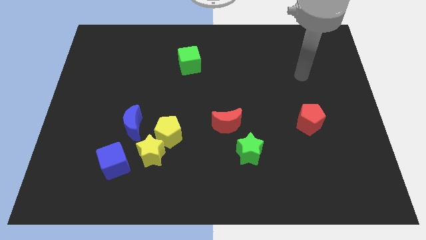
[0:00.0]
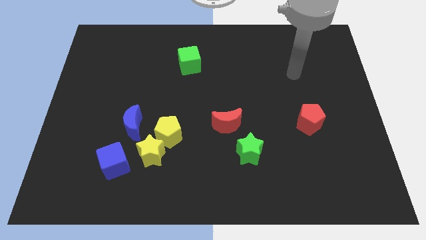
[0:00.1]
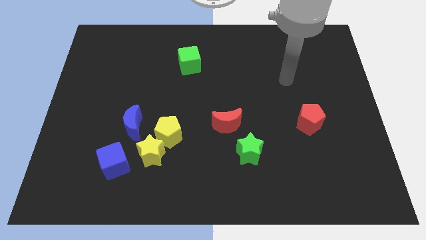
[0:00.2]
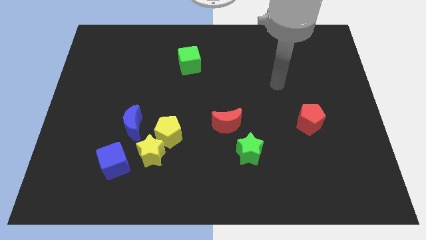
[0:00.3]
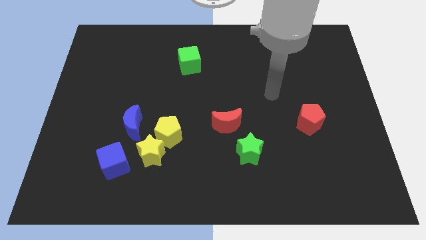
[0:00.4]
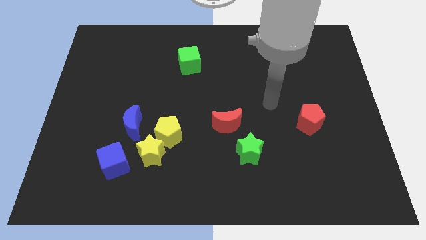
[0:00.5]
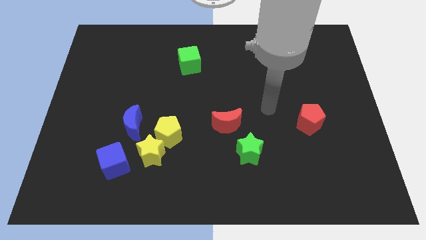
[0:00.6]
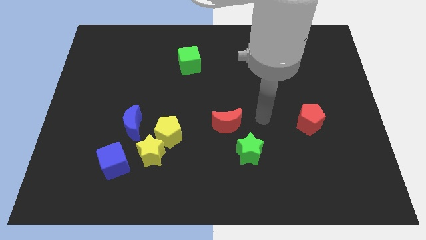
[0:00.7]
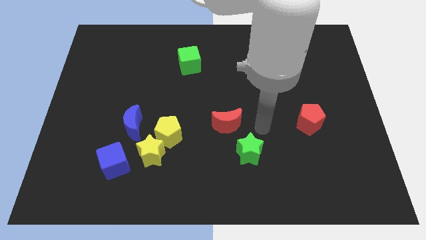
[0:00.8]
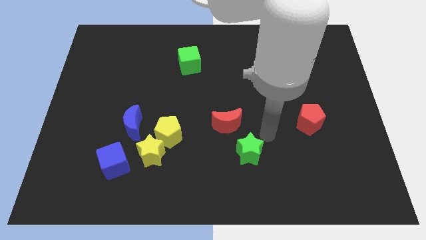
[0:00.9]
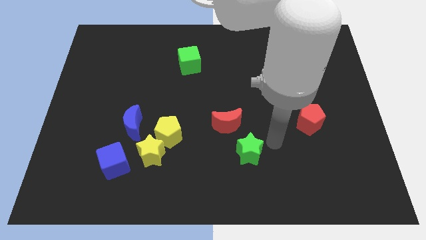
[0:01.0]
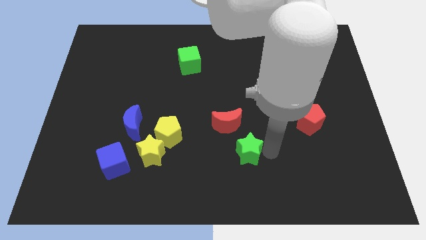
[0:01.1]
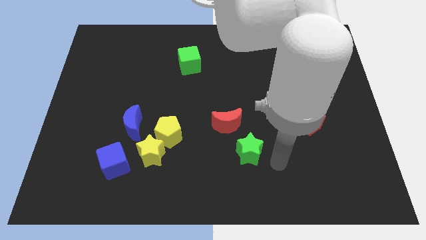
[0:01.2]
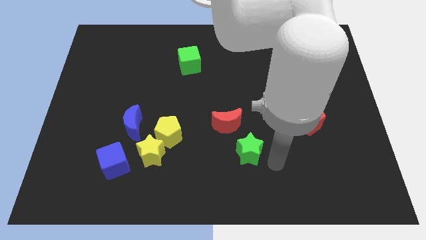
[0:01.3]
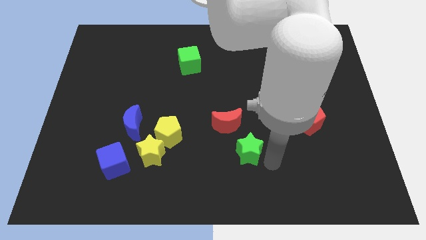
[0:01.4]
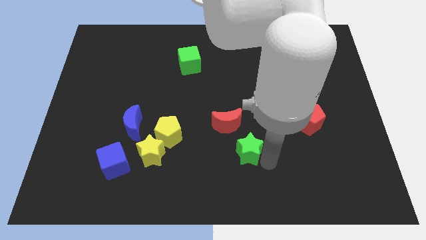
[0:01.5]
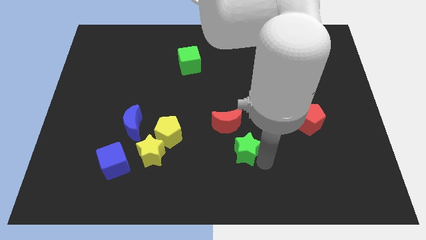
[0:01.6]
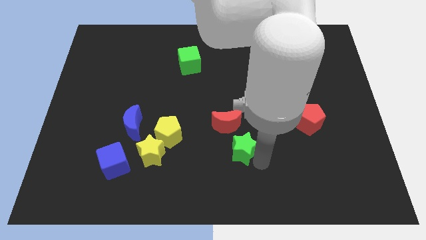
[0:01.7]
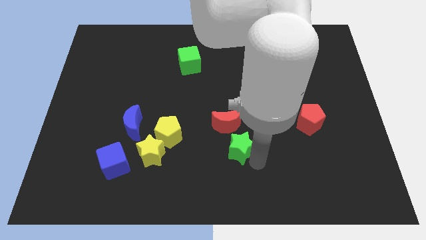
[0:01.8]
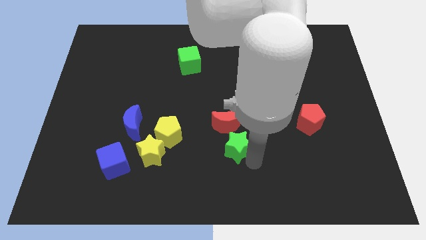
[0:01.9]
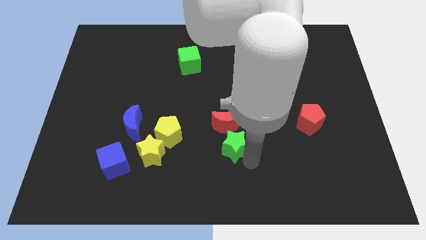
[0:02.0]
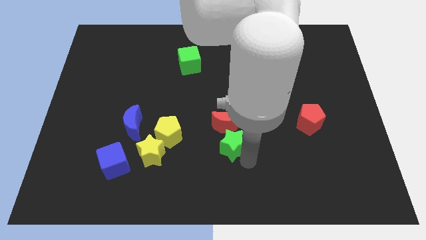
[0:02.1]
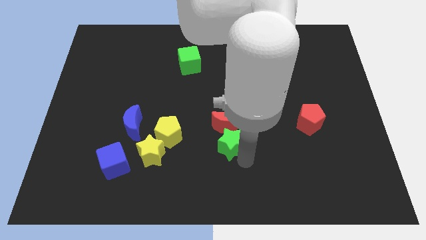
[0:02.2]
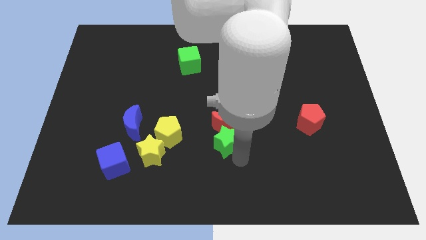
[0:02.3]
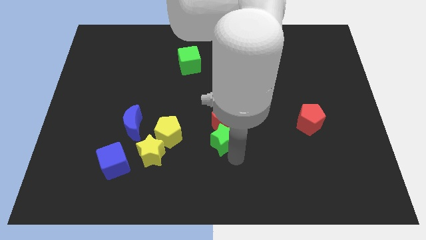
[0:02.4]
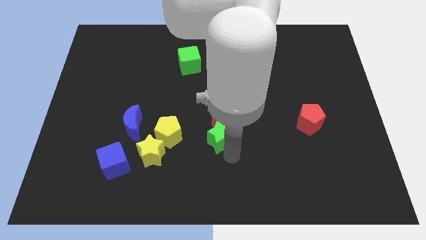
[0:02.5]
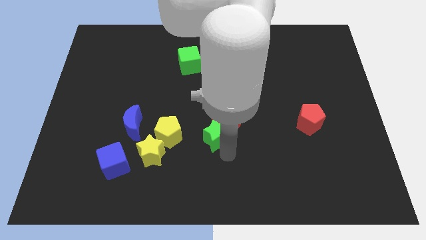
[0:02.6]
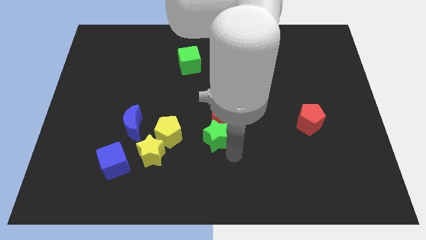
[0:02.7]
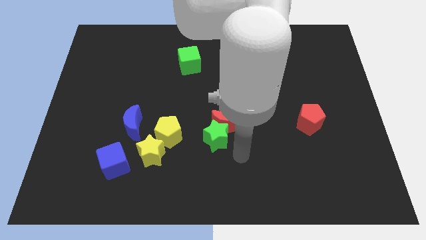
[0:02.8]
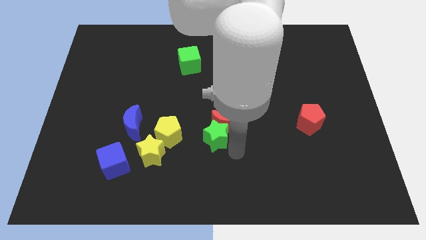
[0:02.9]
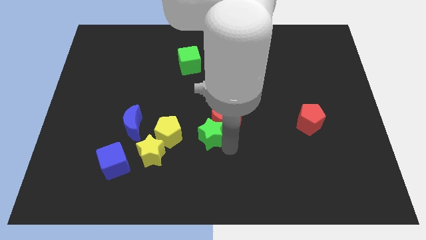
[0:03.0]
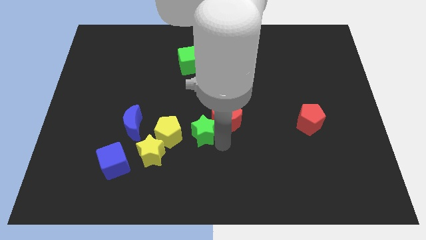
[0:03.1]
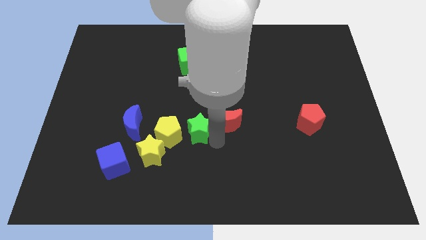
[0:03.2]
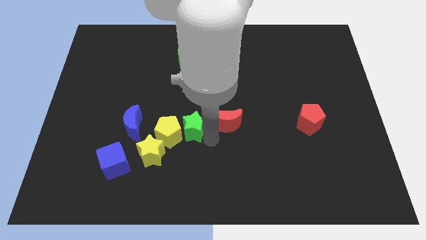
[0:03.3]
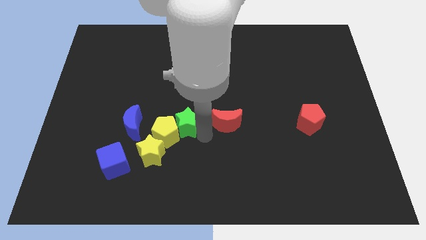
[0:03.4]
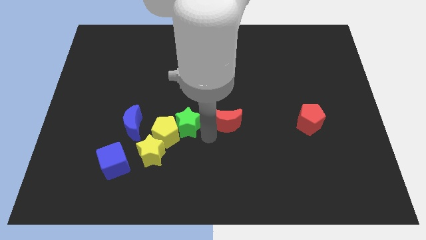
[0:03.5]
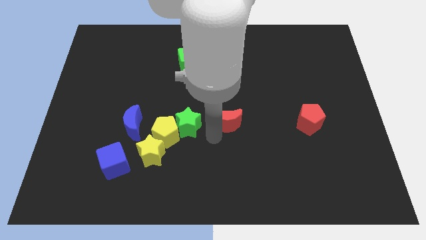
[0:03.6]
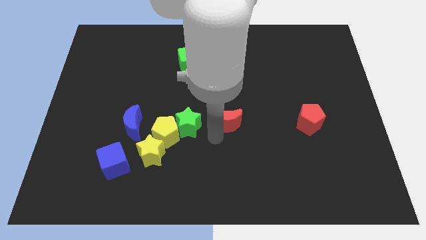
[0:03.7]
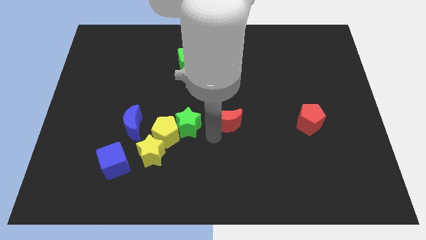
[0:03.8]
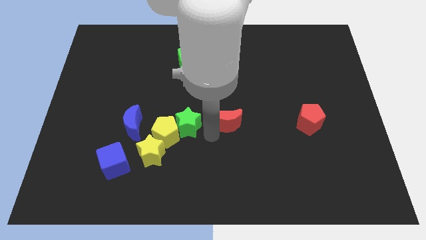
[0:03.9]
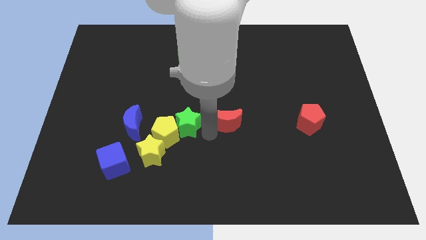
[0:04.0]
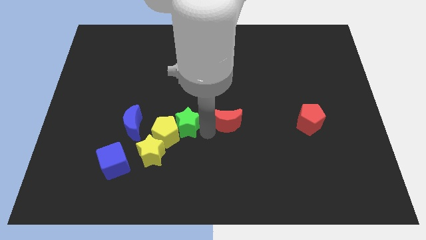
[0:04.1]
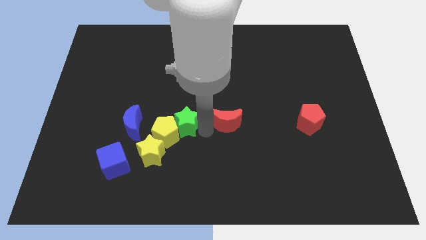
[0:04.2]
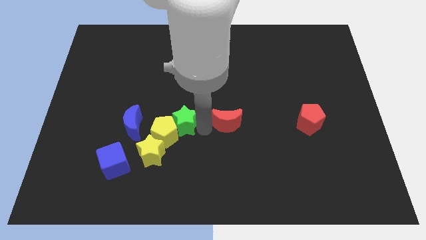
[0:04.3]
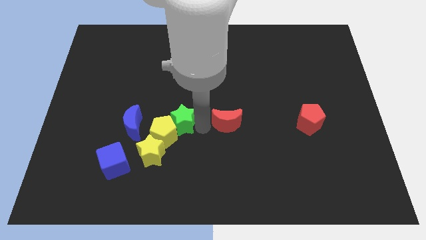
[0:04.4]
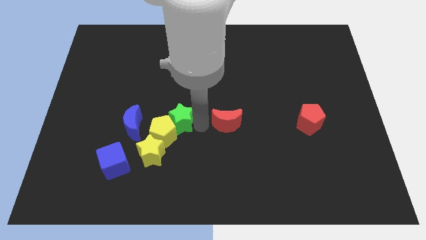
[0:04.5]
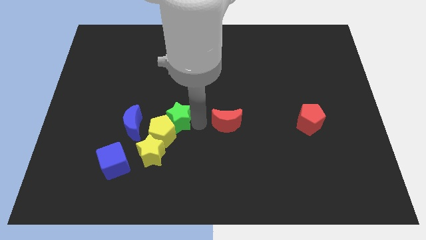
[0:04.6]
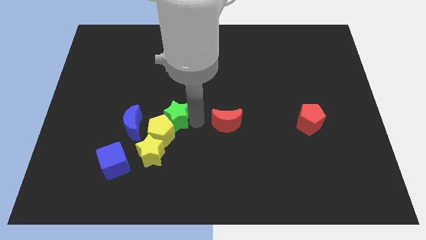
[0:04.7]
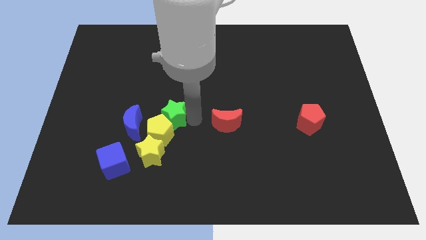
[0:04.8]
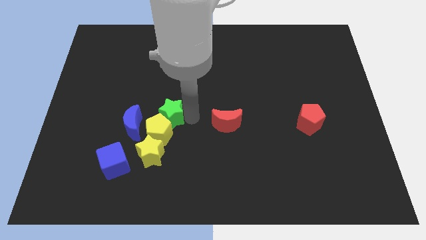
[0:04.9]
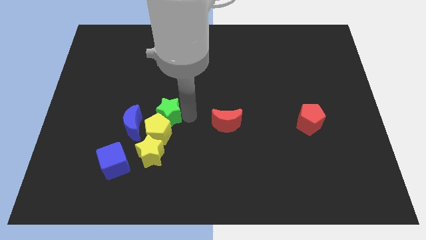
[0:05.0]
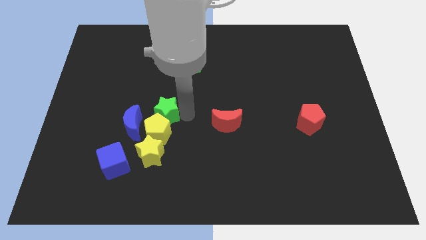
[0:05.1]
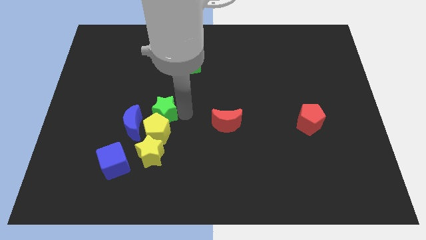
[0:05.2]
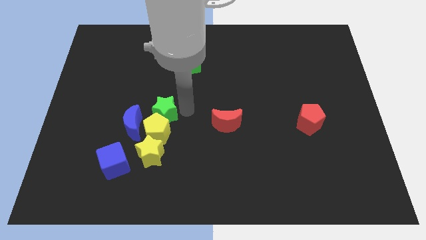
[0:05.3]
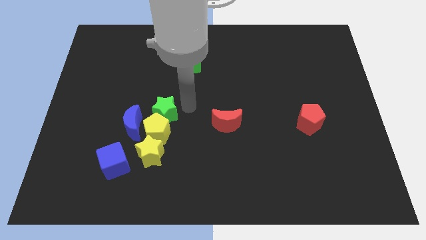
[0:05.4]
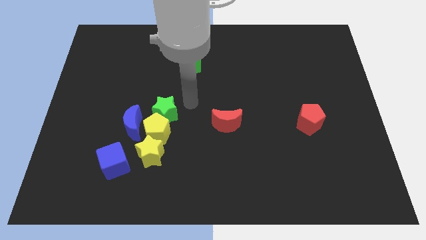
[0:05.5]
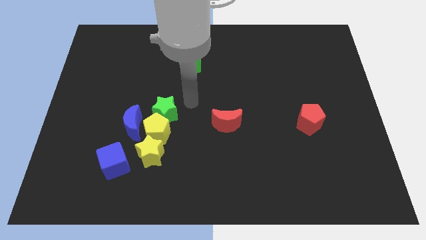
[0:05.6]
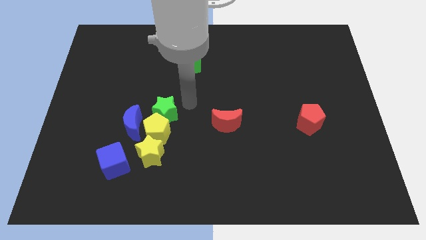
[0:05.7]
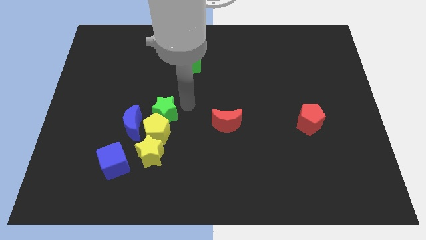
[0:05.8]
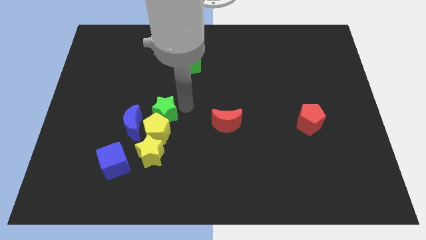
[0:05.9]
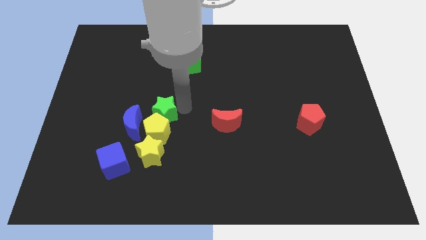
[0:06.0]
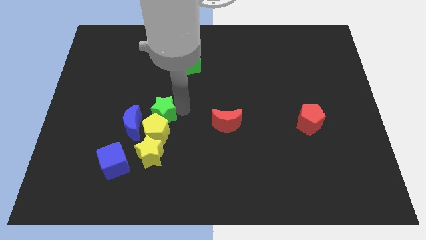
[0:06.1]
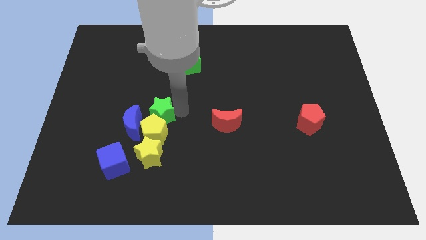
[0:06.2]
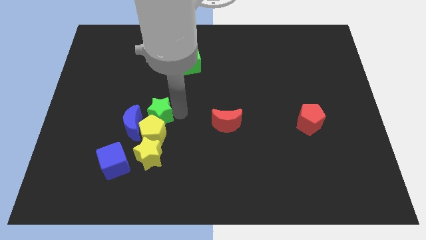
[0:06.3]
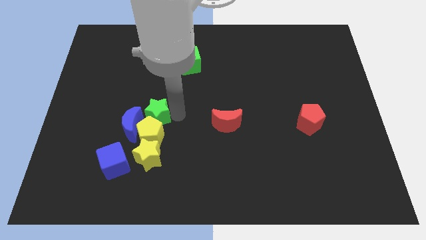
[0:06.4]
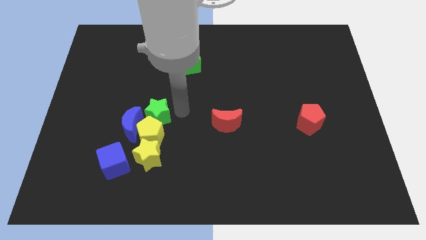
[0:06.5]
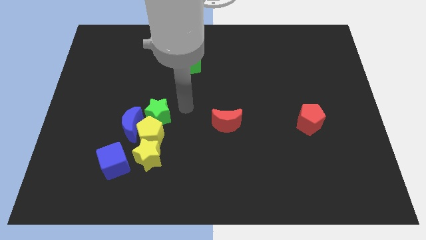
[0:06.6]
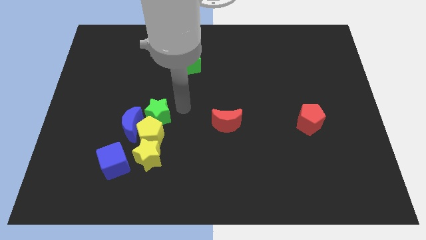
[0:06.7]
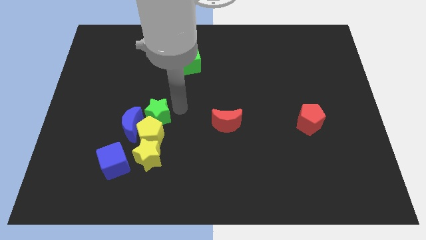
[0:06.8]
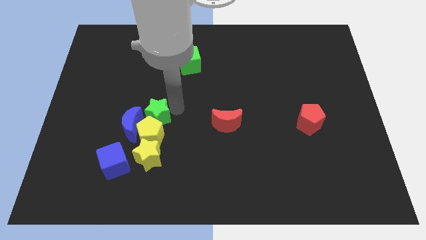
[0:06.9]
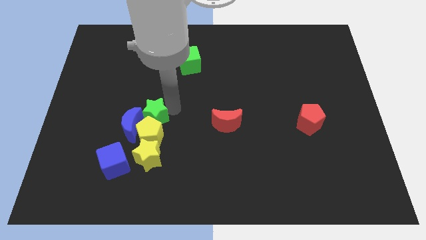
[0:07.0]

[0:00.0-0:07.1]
move the green star to the blue moon

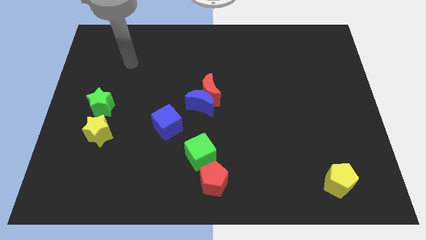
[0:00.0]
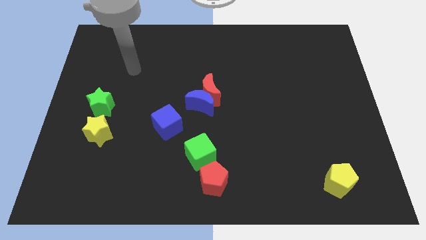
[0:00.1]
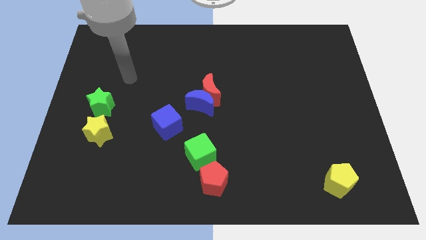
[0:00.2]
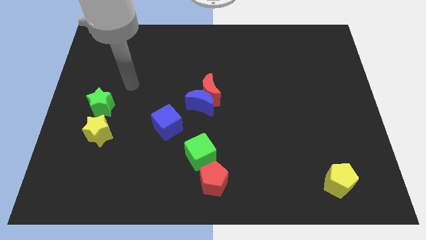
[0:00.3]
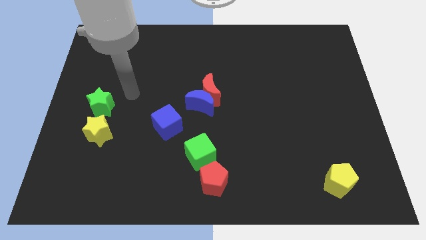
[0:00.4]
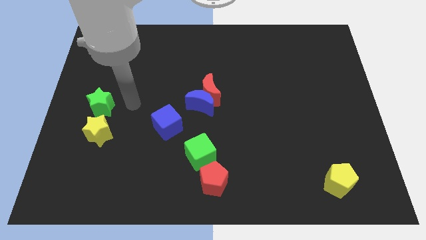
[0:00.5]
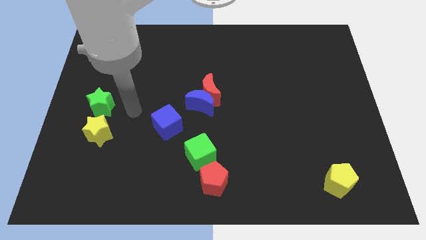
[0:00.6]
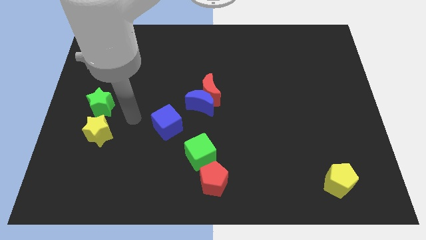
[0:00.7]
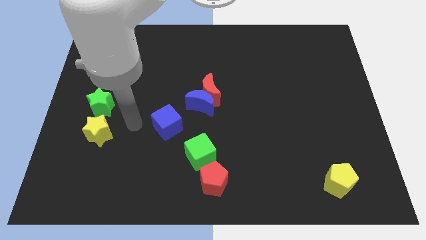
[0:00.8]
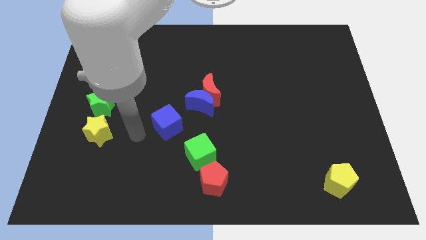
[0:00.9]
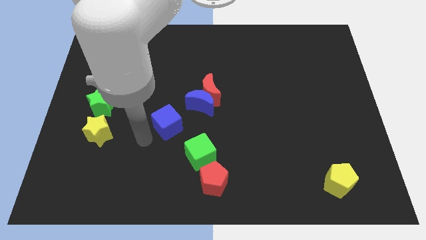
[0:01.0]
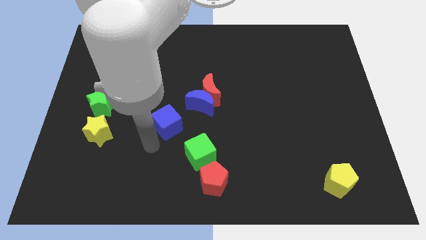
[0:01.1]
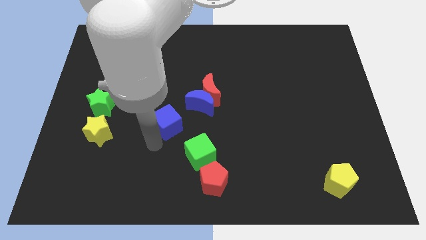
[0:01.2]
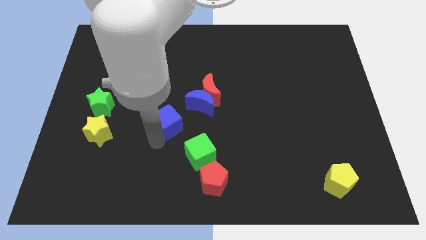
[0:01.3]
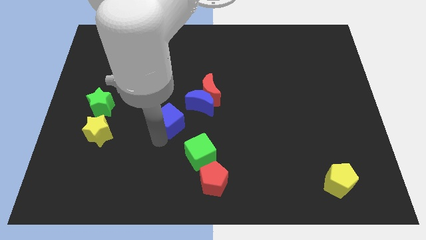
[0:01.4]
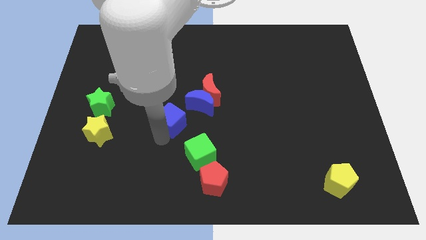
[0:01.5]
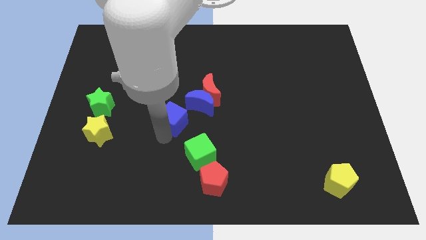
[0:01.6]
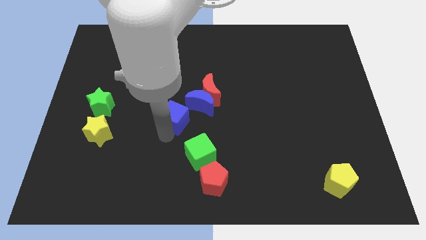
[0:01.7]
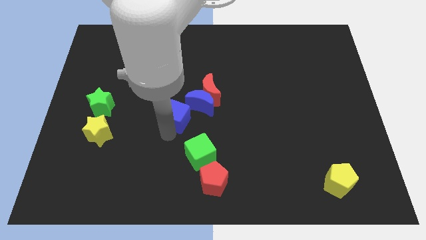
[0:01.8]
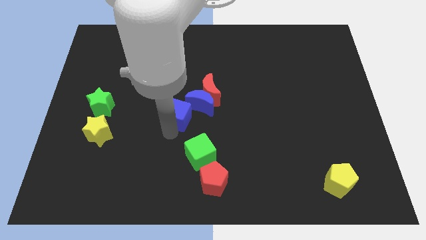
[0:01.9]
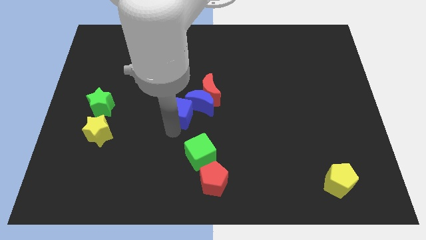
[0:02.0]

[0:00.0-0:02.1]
push the blue cube next to the blue moon
